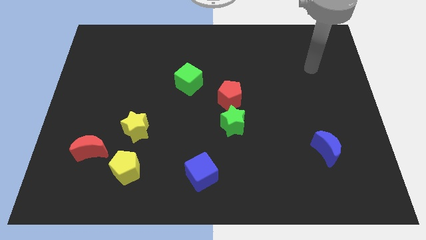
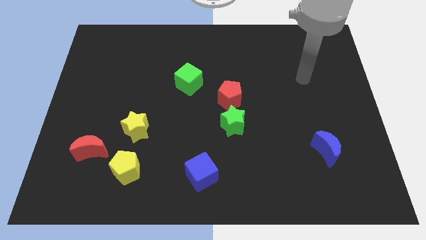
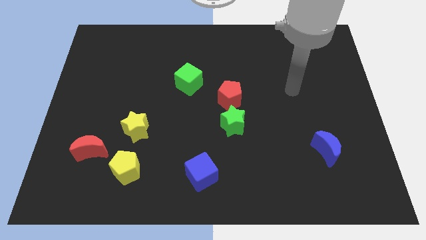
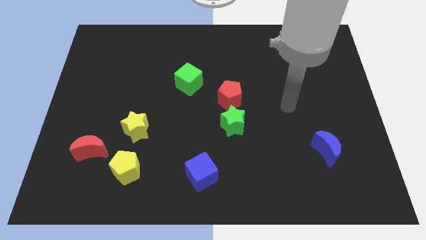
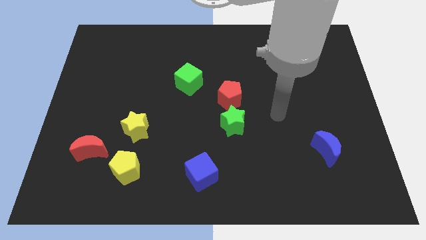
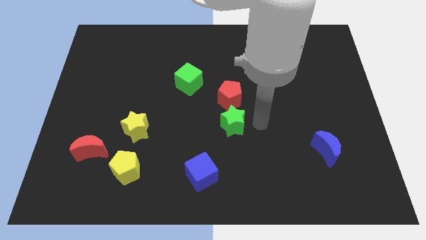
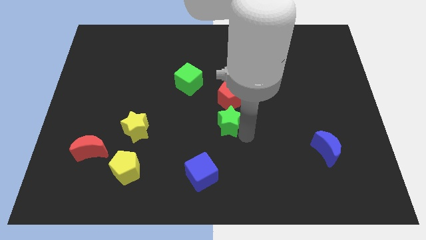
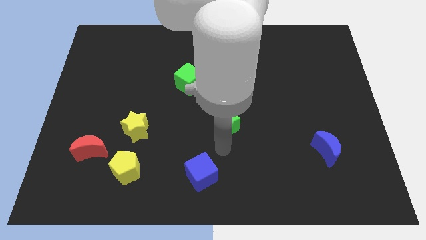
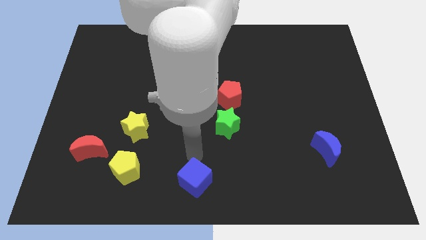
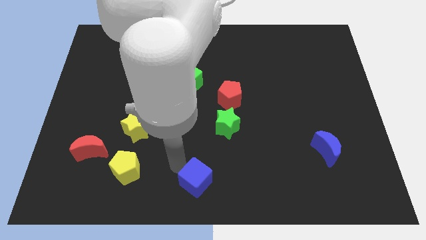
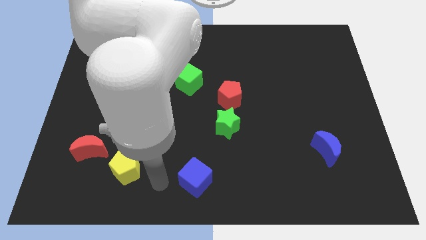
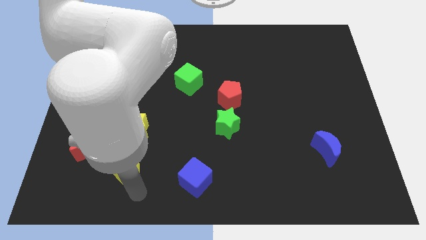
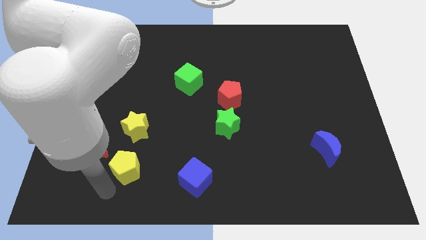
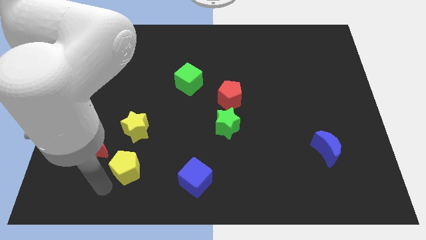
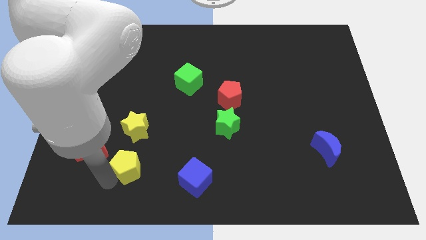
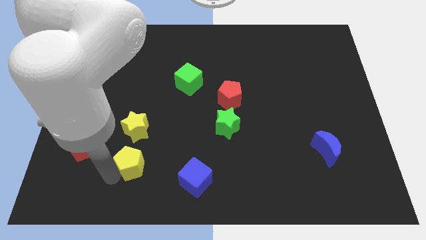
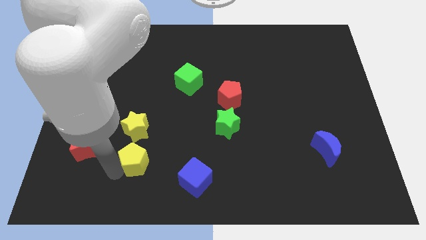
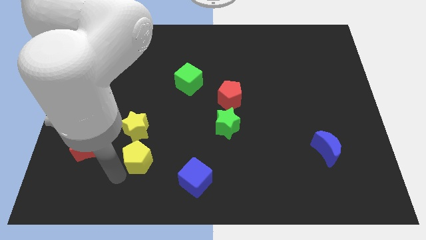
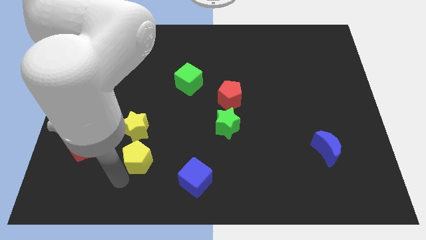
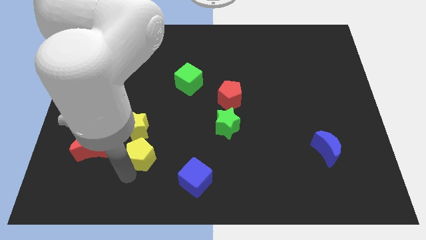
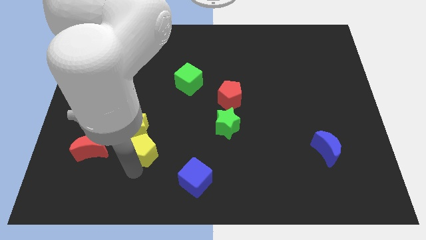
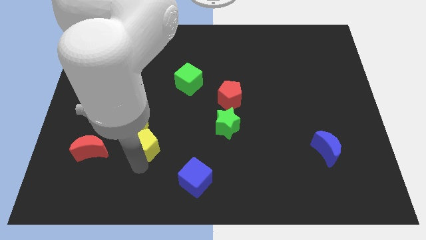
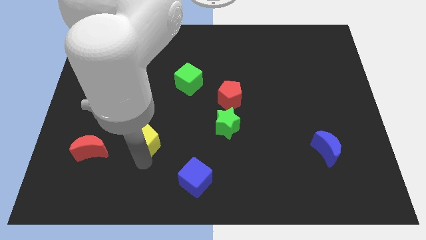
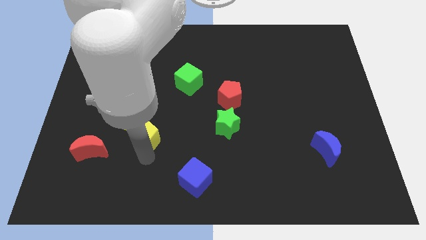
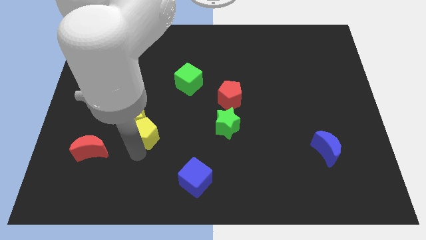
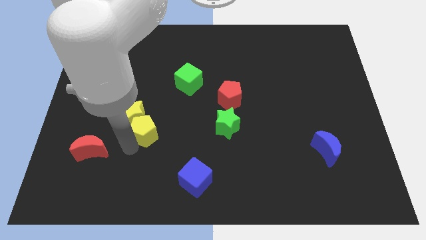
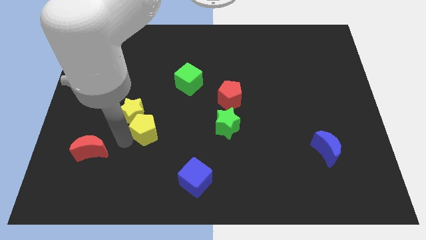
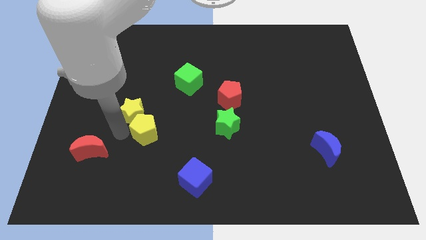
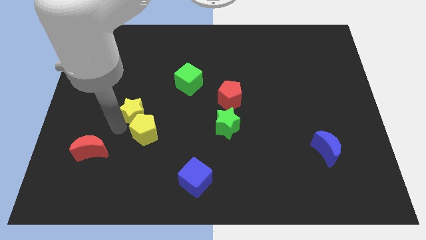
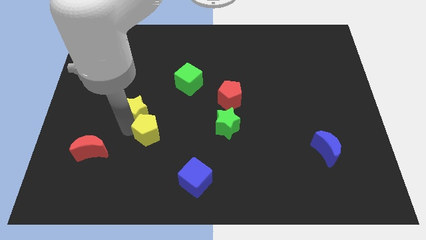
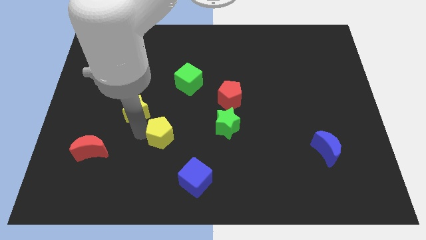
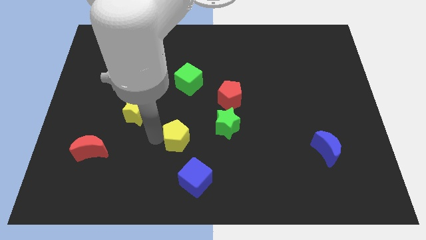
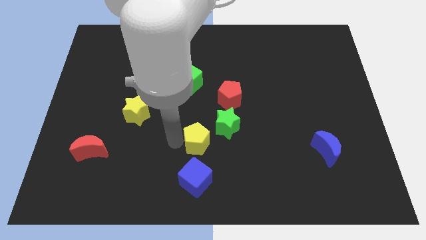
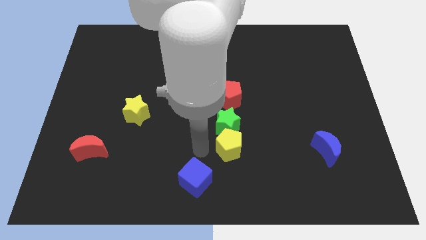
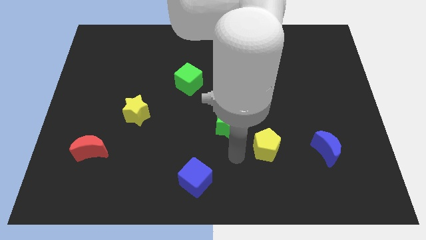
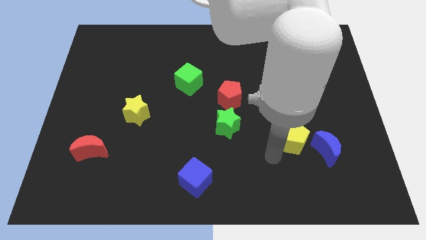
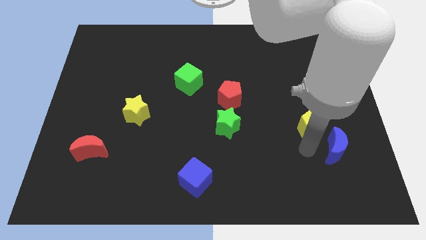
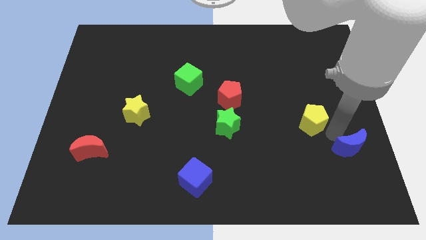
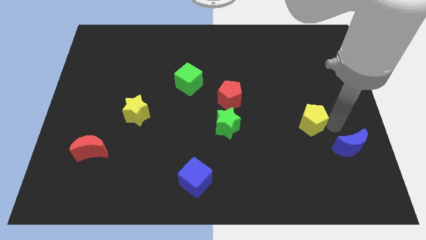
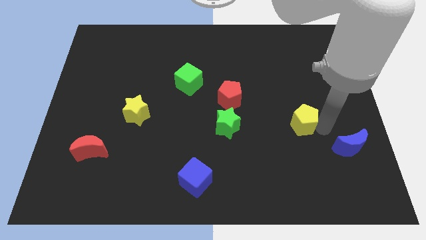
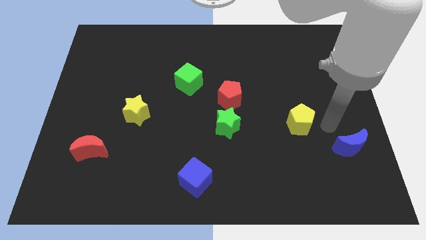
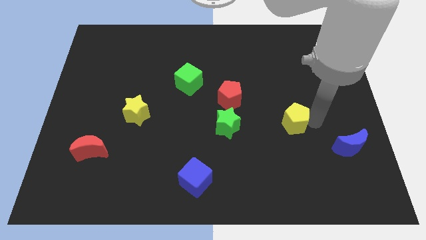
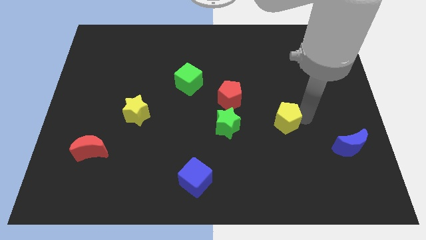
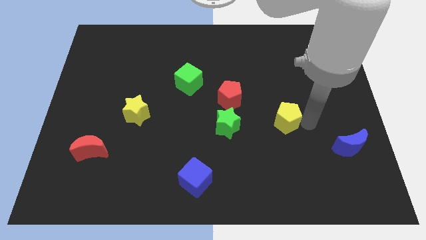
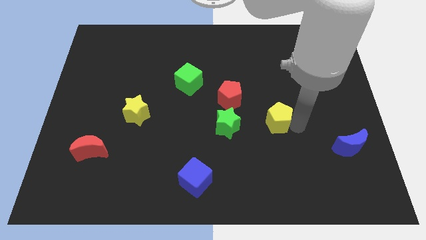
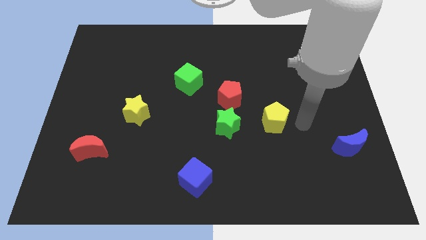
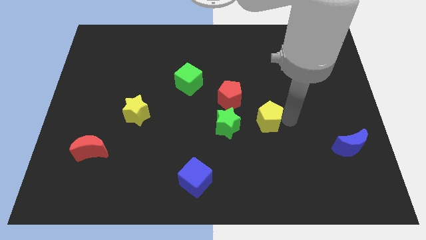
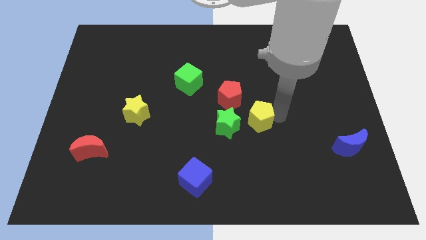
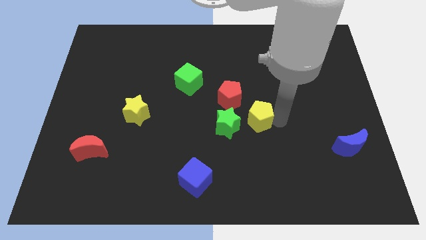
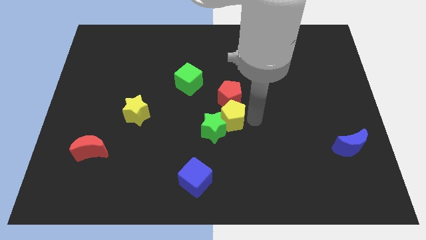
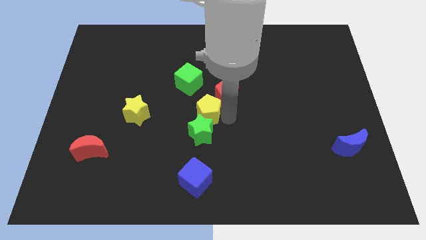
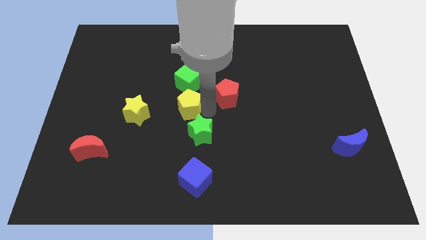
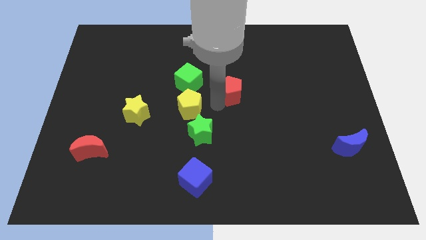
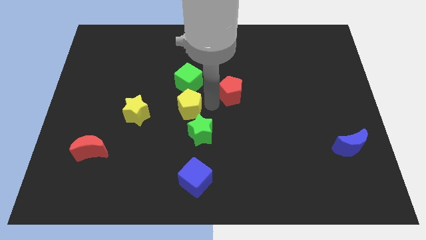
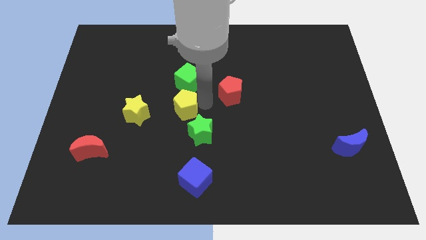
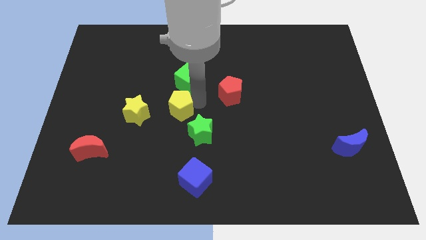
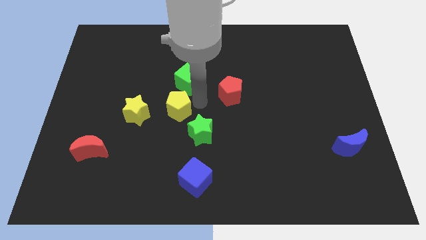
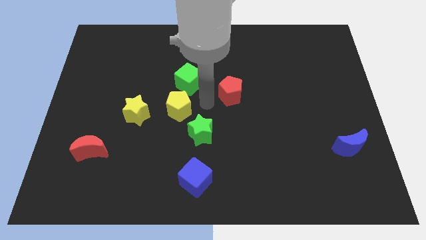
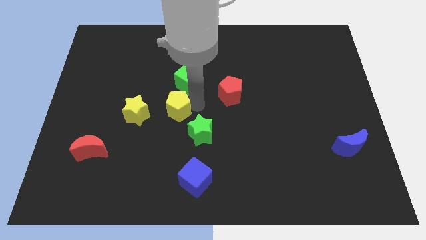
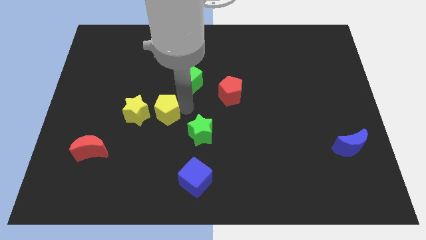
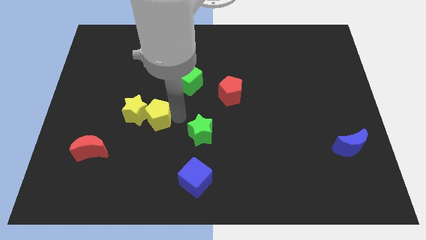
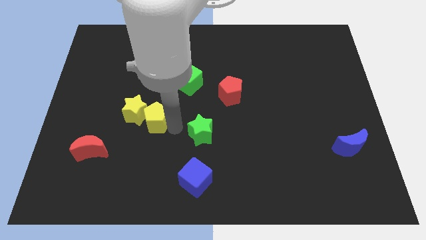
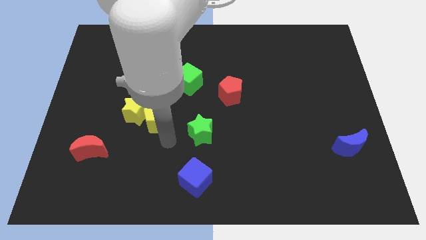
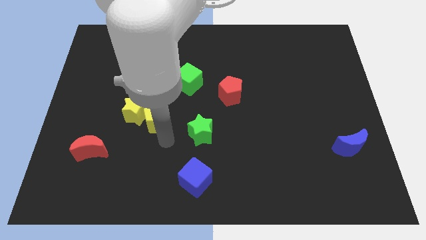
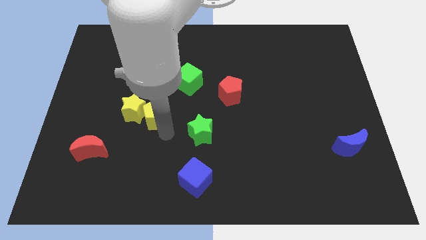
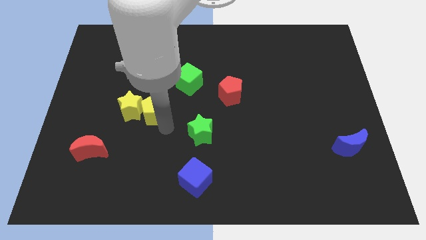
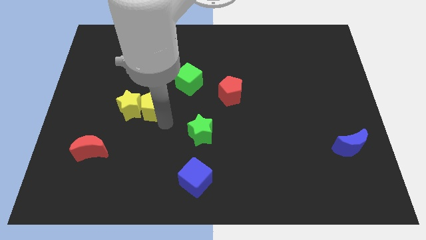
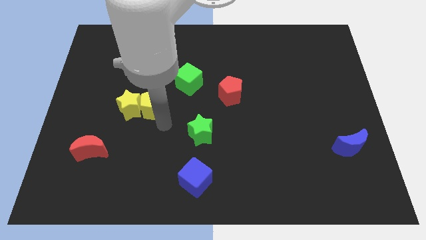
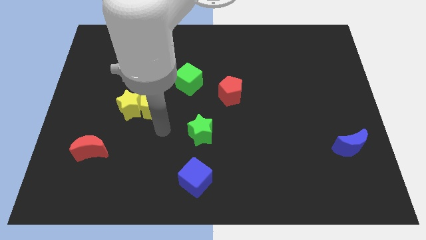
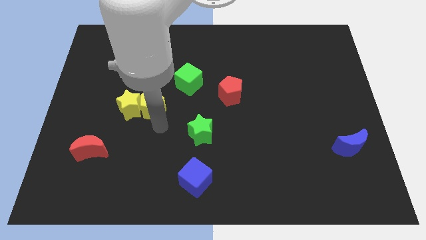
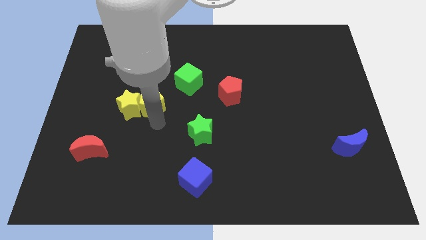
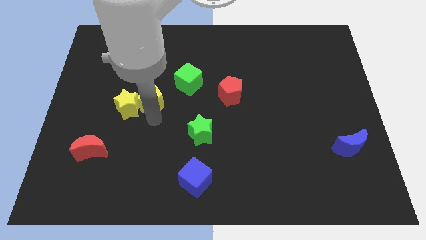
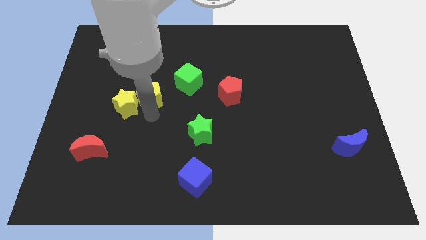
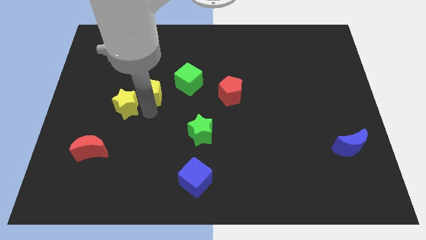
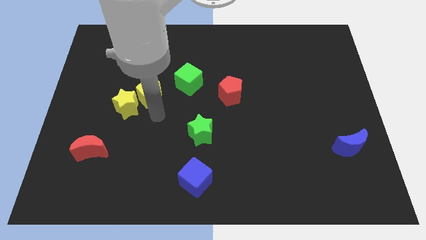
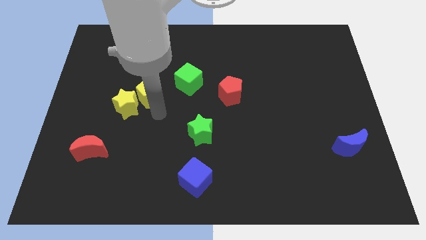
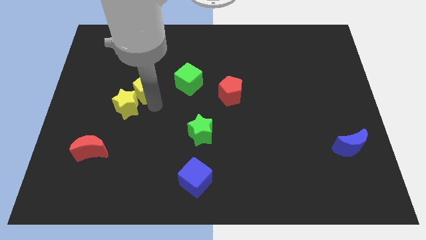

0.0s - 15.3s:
slide the yellow pentagon up
